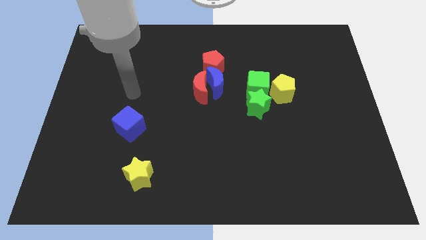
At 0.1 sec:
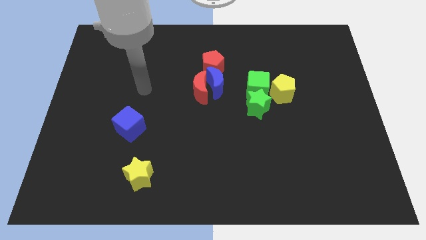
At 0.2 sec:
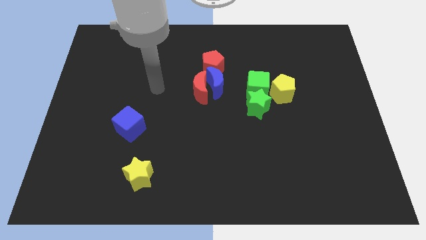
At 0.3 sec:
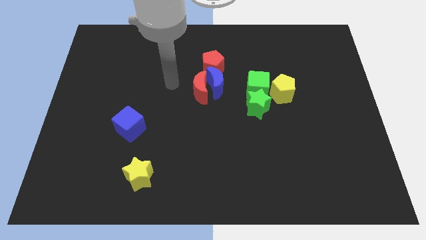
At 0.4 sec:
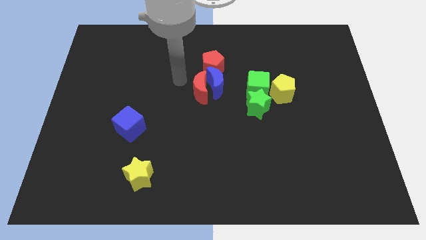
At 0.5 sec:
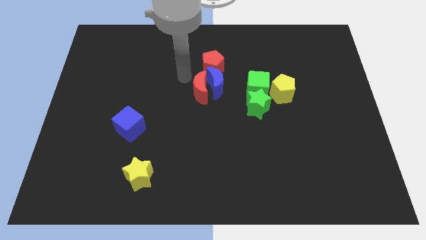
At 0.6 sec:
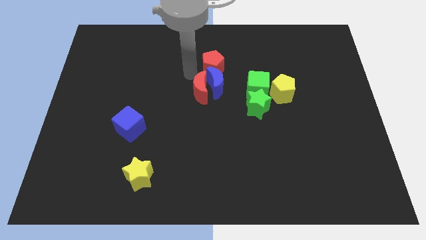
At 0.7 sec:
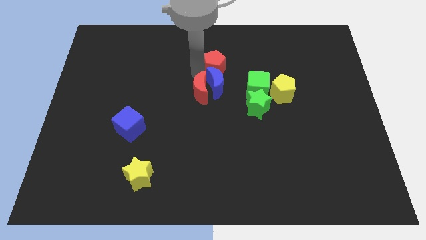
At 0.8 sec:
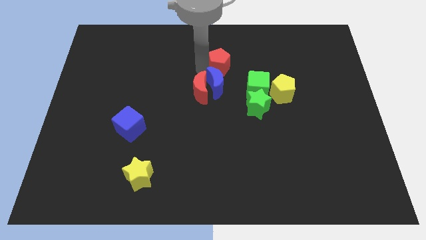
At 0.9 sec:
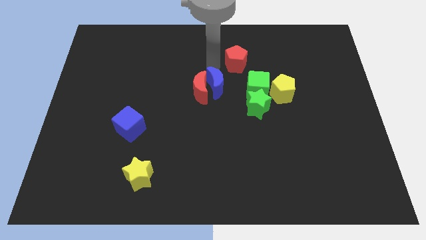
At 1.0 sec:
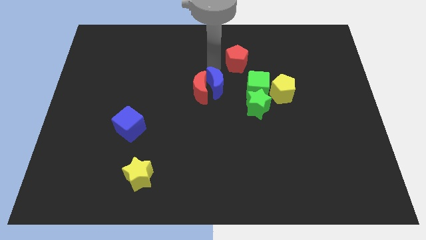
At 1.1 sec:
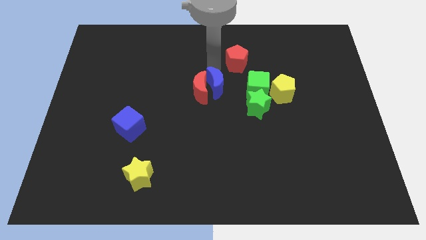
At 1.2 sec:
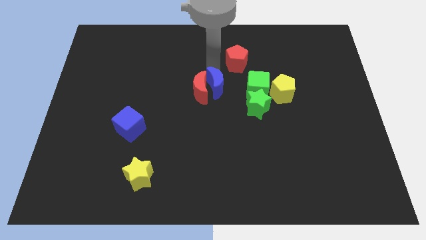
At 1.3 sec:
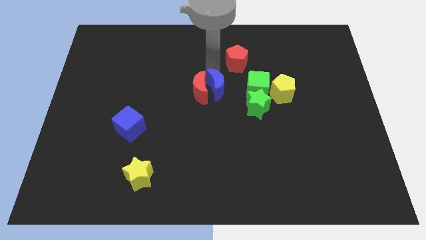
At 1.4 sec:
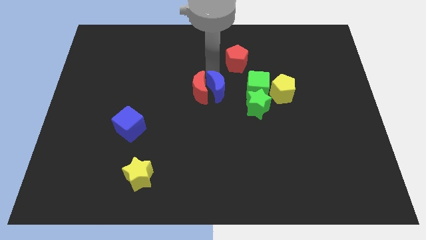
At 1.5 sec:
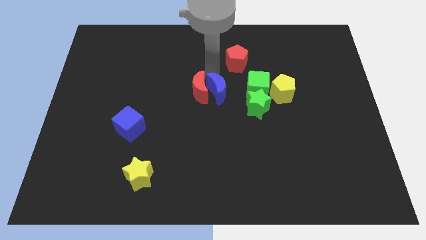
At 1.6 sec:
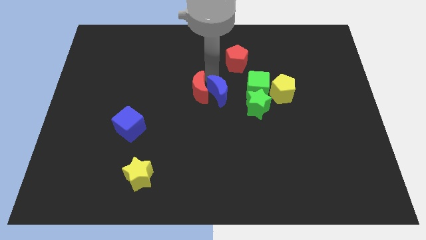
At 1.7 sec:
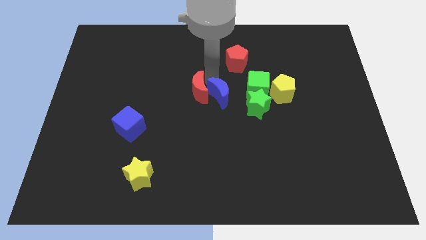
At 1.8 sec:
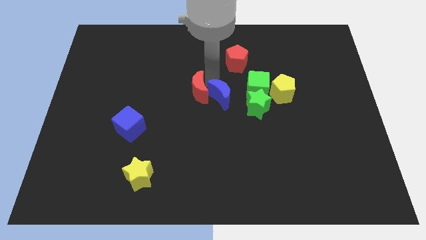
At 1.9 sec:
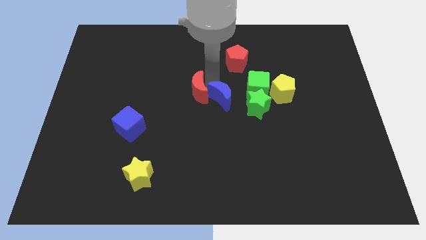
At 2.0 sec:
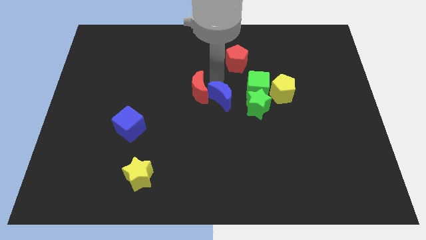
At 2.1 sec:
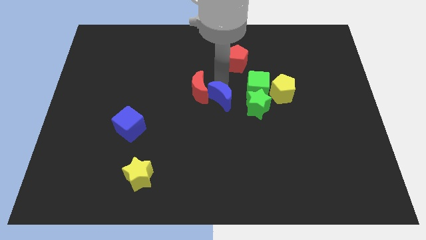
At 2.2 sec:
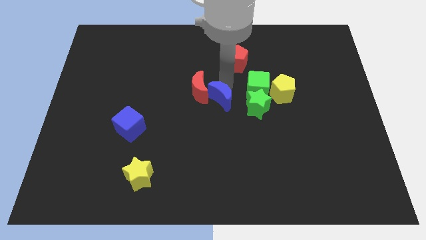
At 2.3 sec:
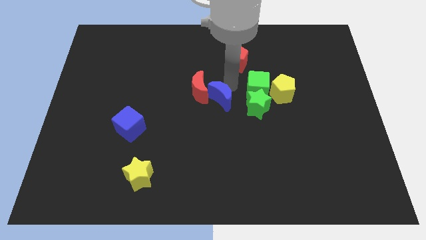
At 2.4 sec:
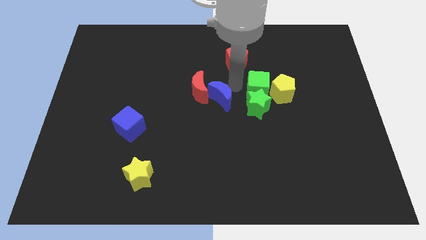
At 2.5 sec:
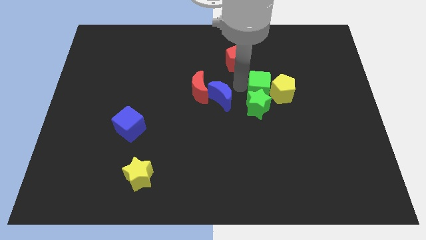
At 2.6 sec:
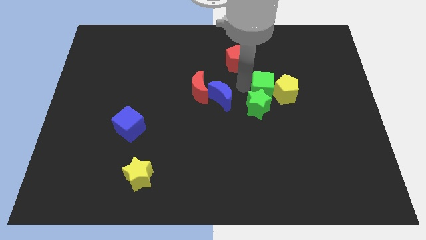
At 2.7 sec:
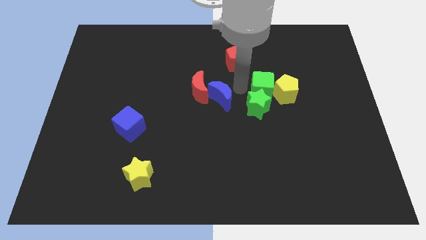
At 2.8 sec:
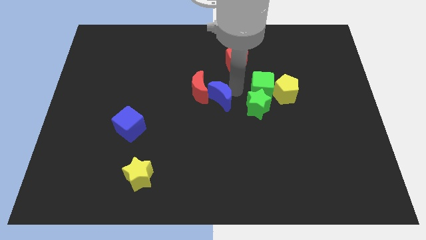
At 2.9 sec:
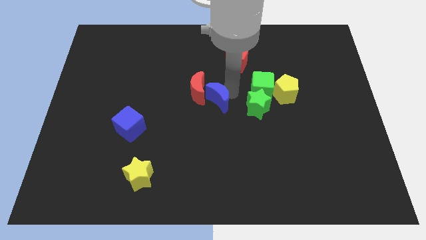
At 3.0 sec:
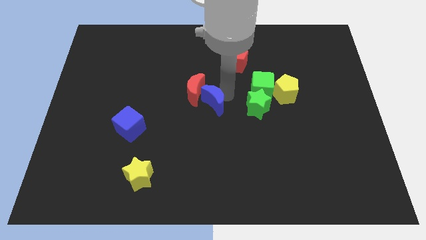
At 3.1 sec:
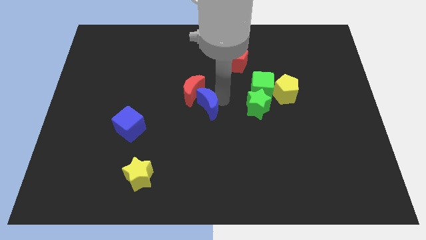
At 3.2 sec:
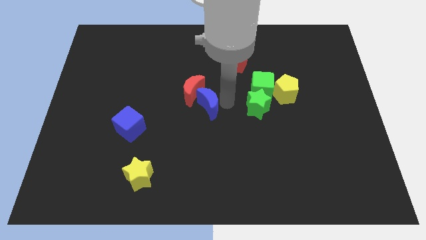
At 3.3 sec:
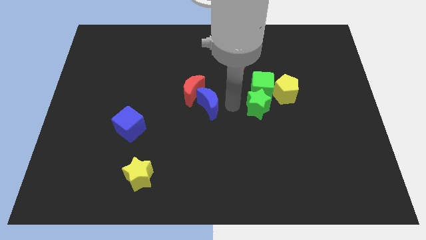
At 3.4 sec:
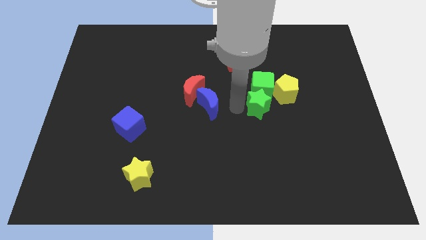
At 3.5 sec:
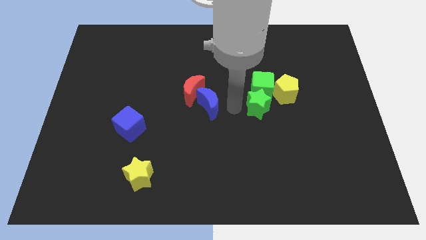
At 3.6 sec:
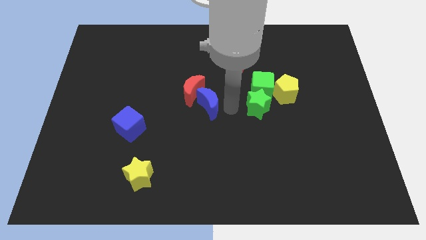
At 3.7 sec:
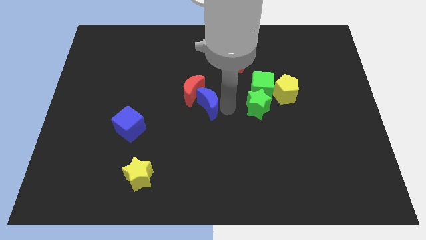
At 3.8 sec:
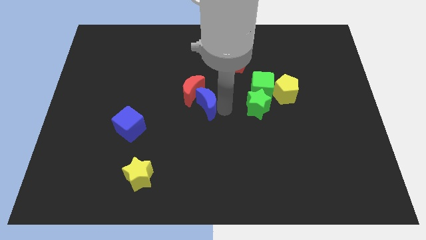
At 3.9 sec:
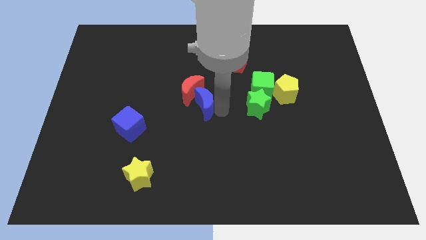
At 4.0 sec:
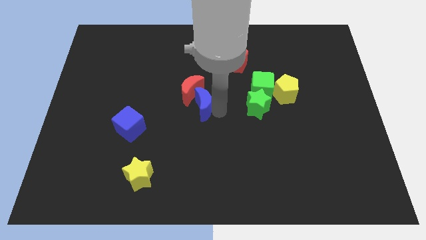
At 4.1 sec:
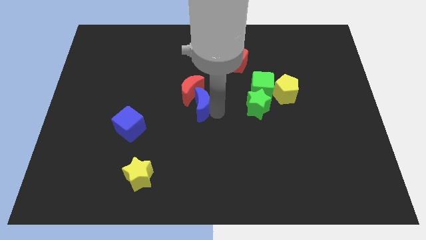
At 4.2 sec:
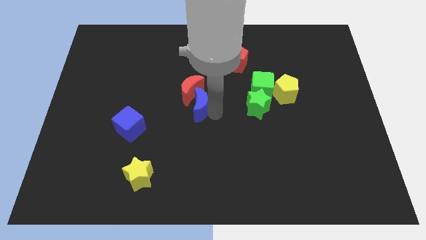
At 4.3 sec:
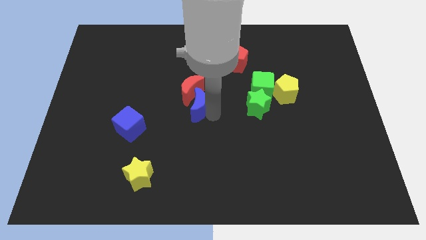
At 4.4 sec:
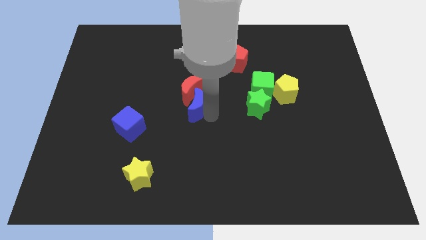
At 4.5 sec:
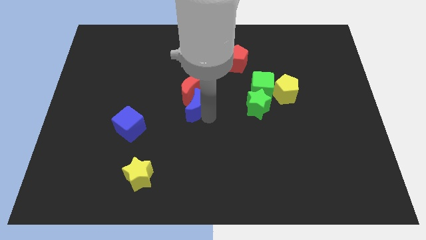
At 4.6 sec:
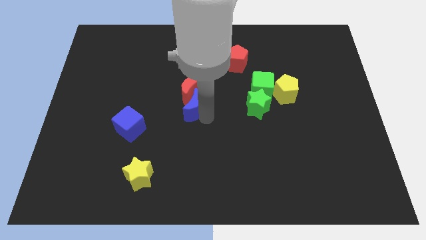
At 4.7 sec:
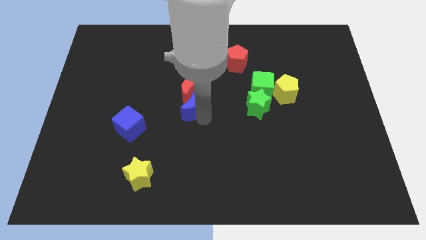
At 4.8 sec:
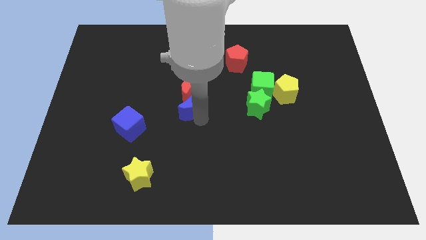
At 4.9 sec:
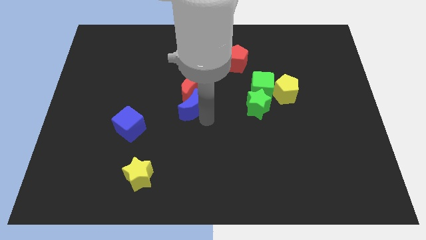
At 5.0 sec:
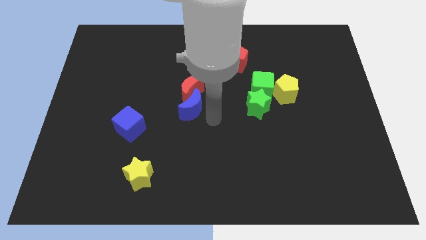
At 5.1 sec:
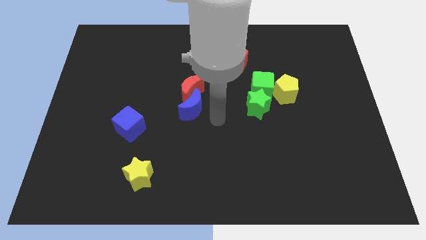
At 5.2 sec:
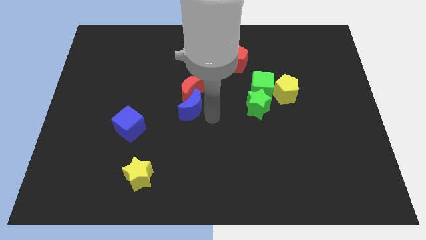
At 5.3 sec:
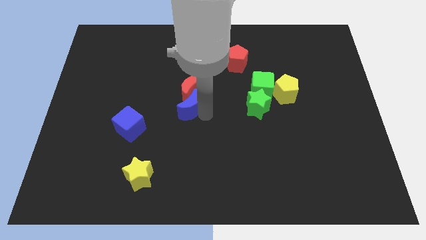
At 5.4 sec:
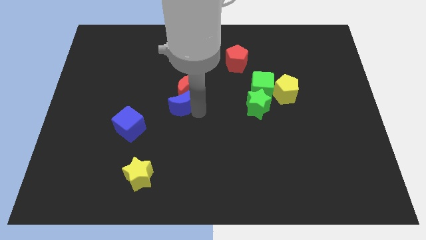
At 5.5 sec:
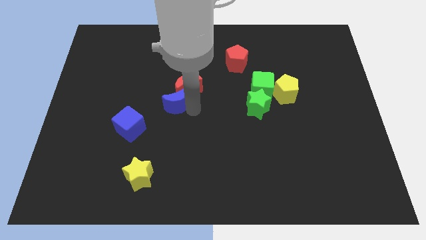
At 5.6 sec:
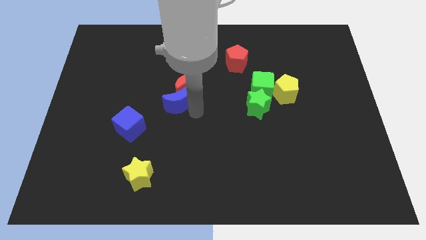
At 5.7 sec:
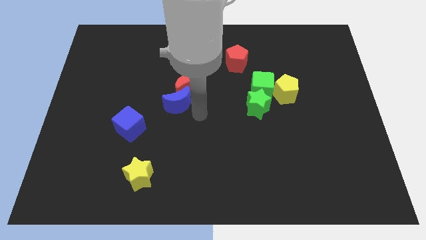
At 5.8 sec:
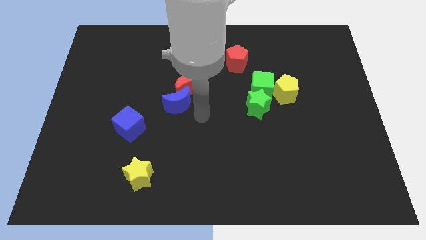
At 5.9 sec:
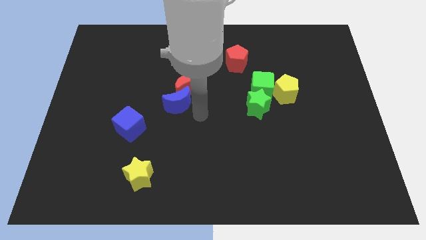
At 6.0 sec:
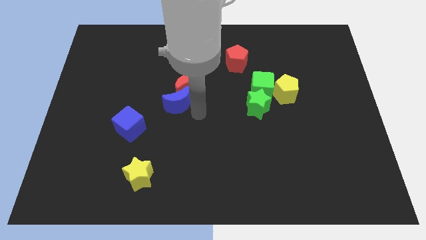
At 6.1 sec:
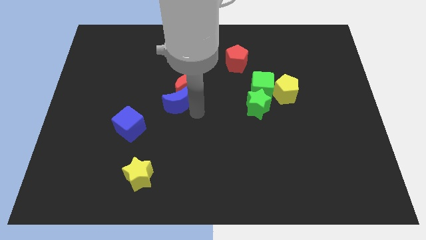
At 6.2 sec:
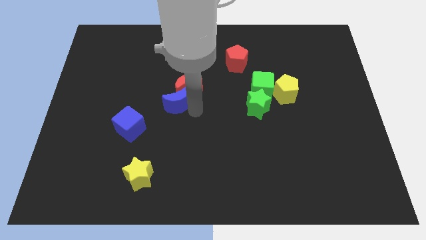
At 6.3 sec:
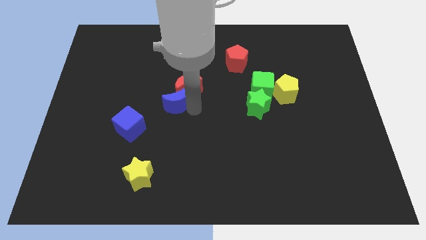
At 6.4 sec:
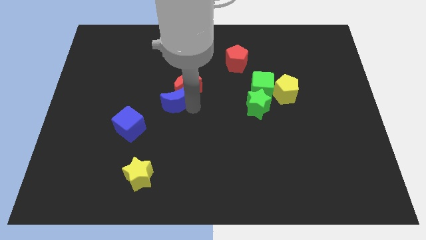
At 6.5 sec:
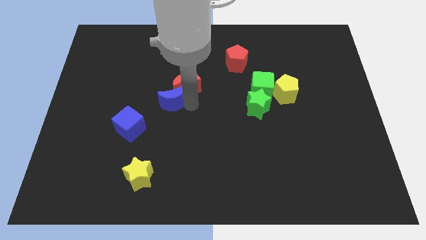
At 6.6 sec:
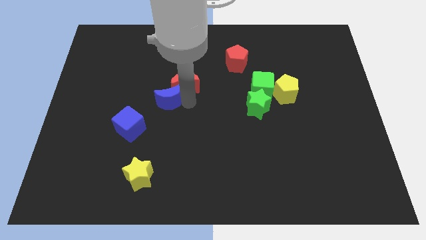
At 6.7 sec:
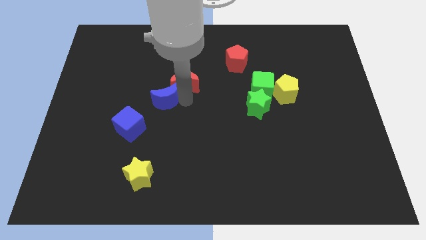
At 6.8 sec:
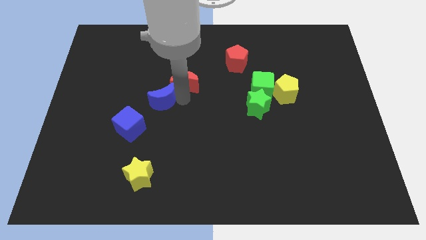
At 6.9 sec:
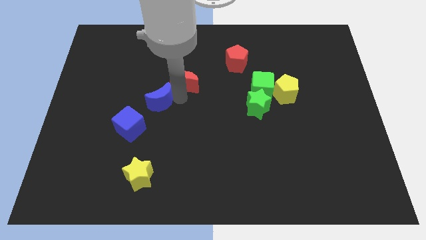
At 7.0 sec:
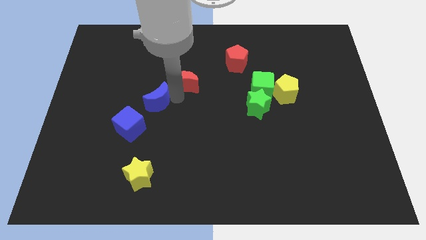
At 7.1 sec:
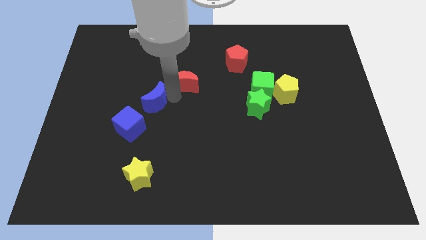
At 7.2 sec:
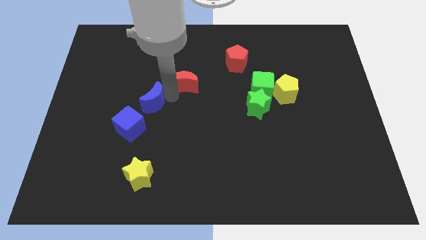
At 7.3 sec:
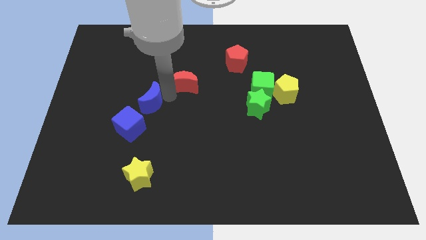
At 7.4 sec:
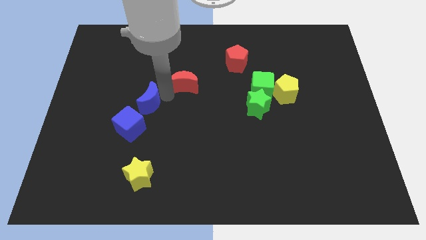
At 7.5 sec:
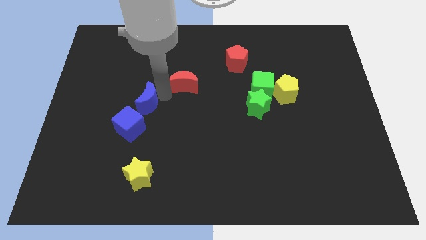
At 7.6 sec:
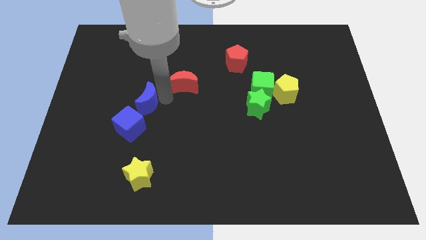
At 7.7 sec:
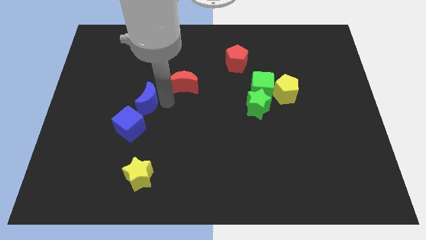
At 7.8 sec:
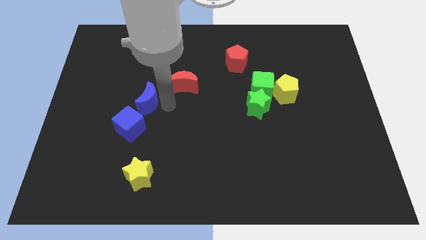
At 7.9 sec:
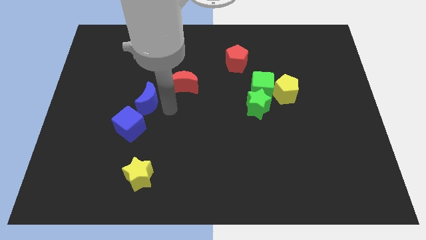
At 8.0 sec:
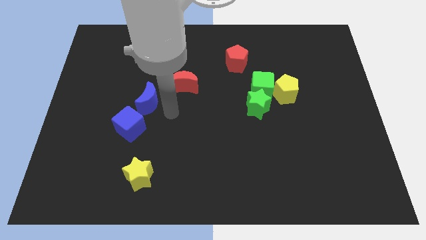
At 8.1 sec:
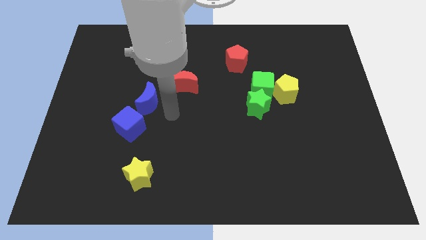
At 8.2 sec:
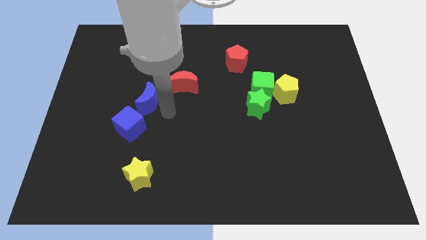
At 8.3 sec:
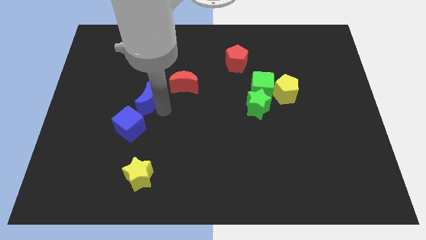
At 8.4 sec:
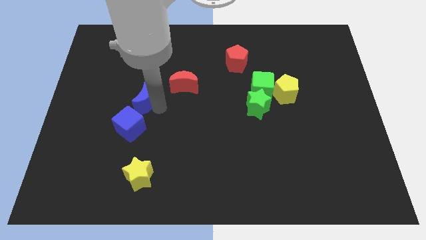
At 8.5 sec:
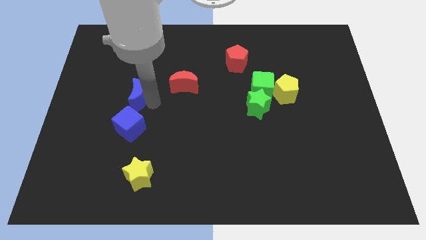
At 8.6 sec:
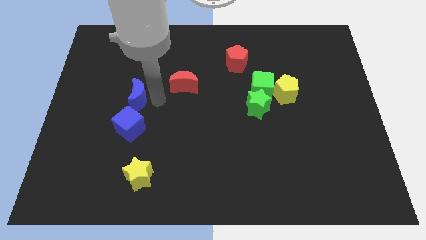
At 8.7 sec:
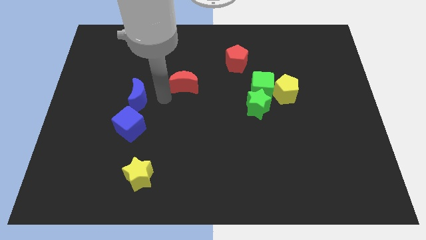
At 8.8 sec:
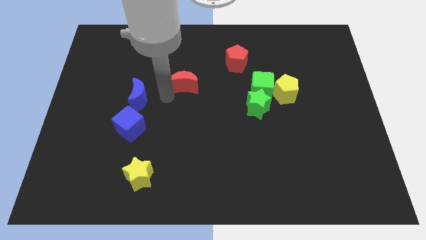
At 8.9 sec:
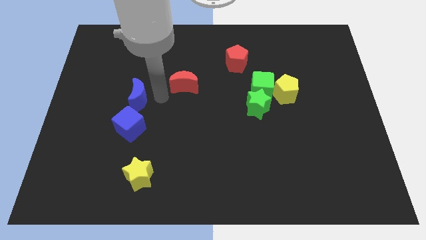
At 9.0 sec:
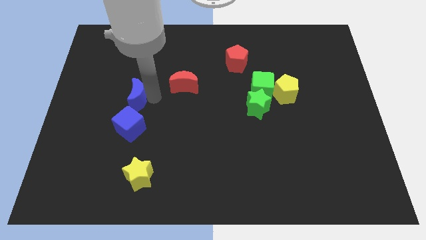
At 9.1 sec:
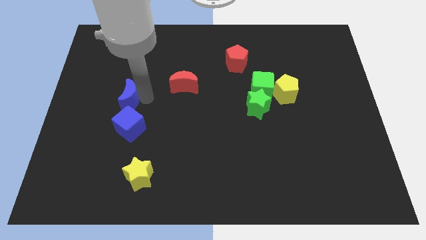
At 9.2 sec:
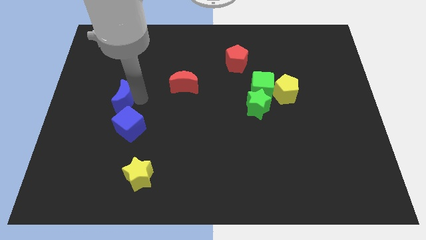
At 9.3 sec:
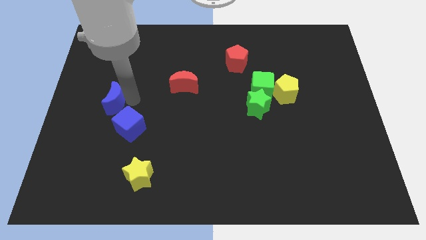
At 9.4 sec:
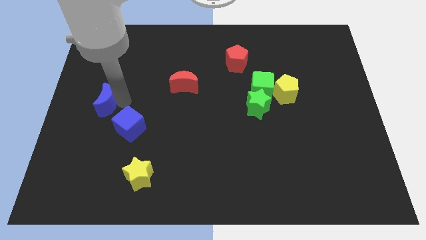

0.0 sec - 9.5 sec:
slide the blue moon to the left side
